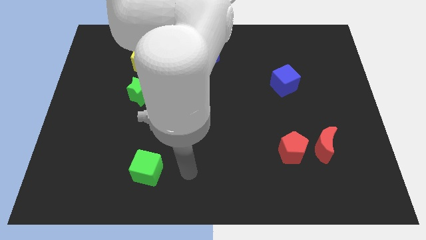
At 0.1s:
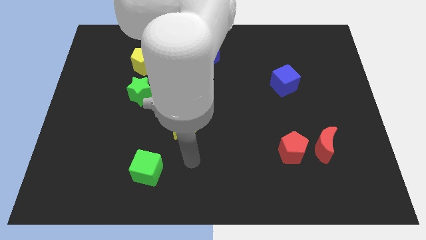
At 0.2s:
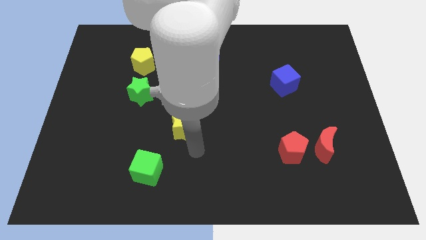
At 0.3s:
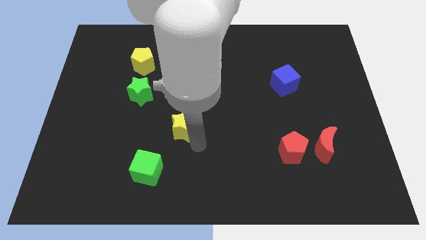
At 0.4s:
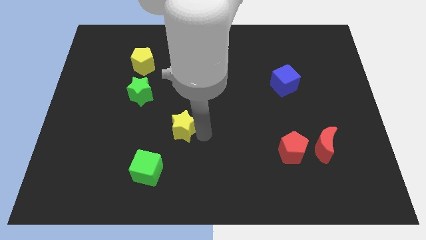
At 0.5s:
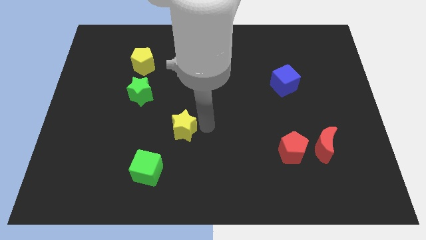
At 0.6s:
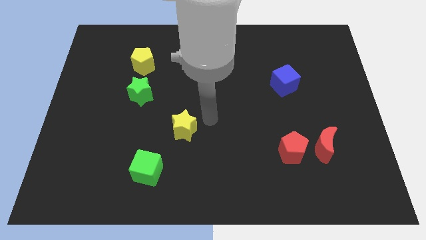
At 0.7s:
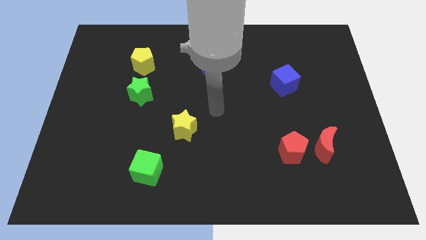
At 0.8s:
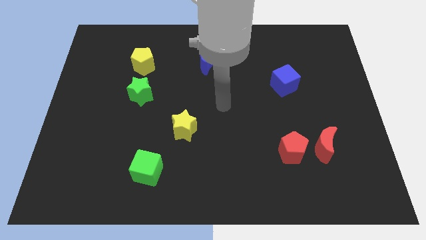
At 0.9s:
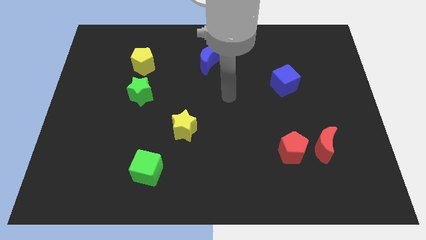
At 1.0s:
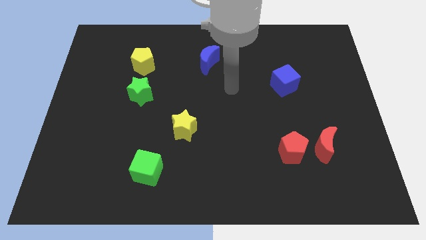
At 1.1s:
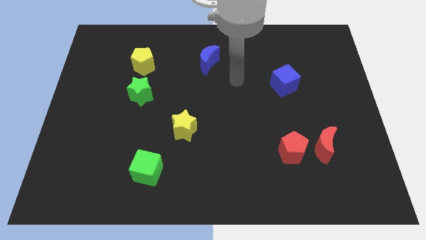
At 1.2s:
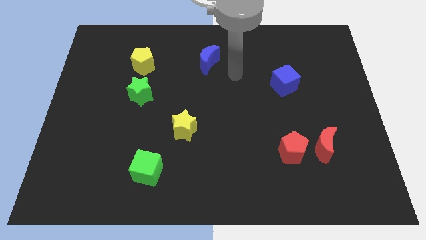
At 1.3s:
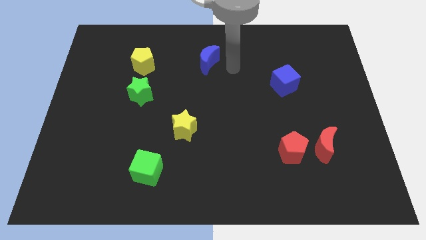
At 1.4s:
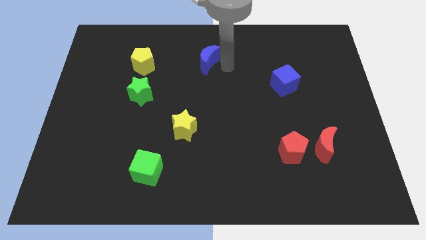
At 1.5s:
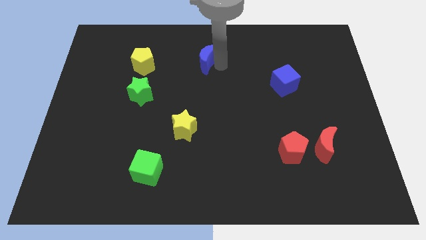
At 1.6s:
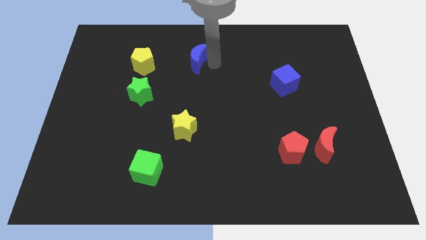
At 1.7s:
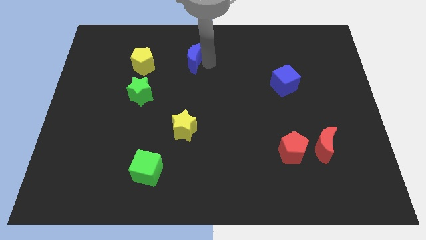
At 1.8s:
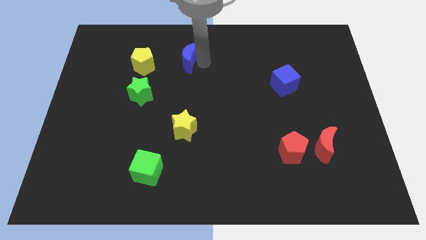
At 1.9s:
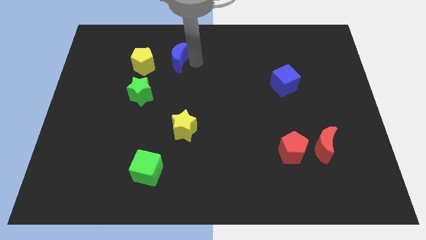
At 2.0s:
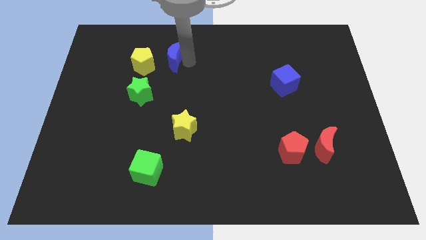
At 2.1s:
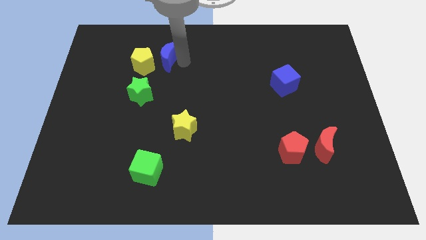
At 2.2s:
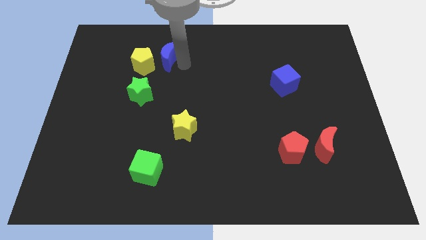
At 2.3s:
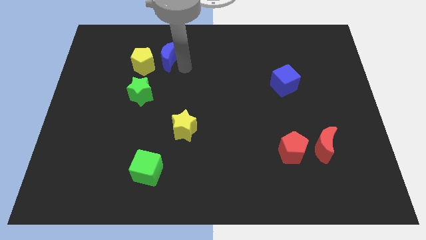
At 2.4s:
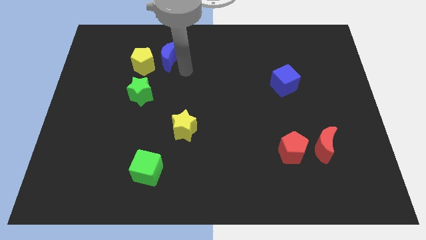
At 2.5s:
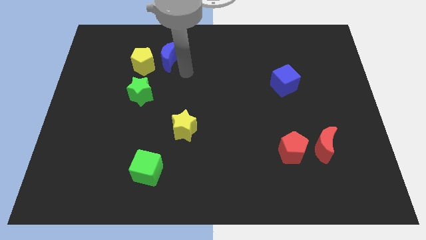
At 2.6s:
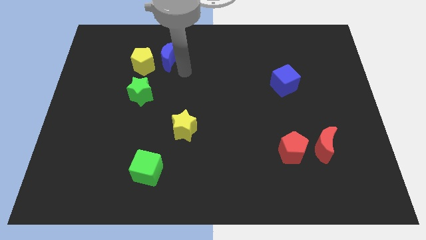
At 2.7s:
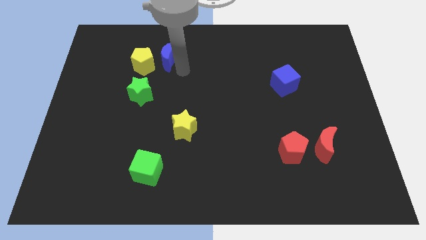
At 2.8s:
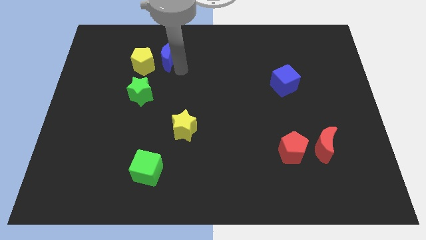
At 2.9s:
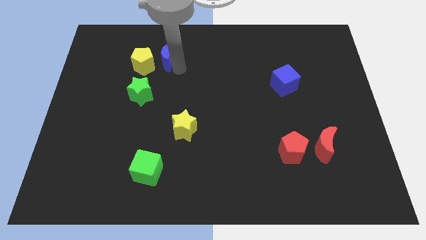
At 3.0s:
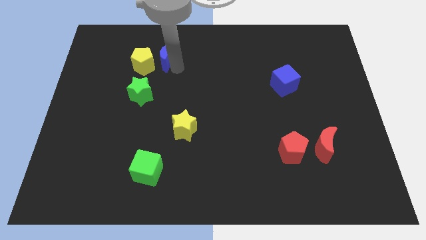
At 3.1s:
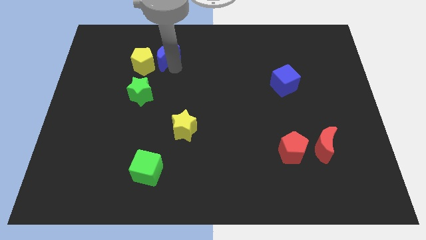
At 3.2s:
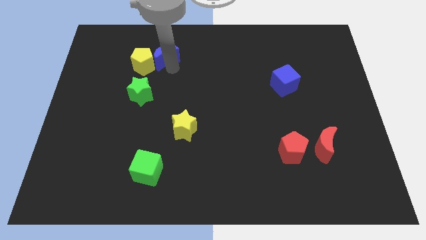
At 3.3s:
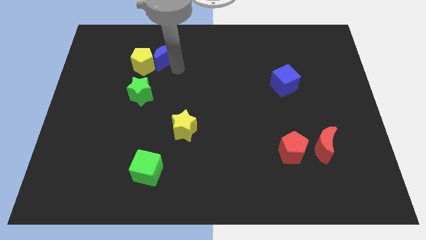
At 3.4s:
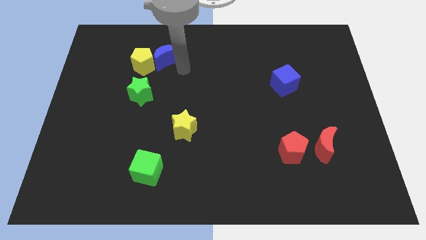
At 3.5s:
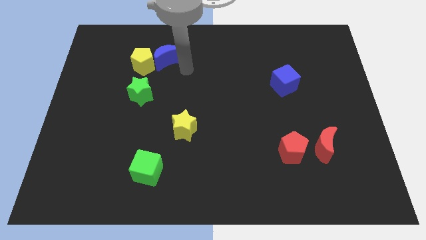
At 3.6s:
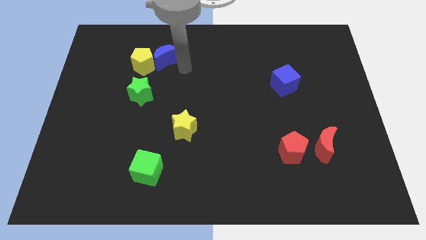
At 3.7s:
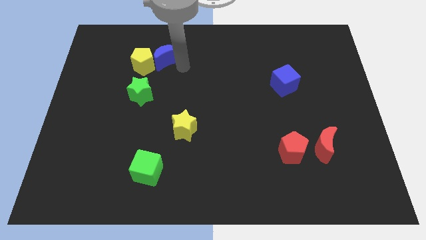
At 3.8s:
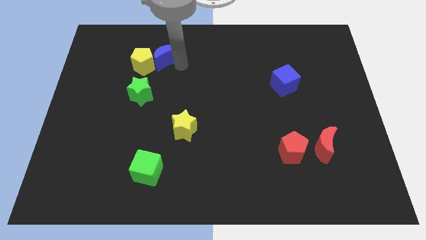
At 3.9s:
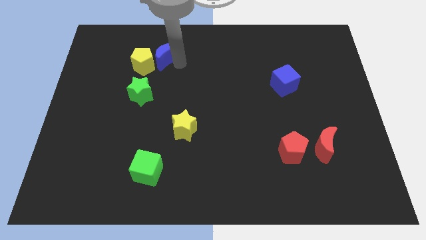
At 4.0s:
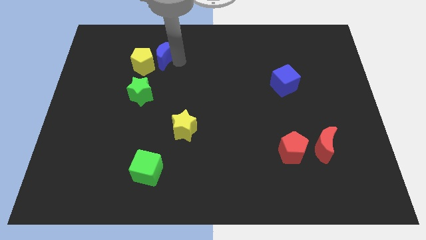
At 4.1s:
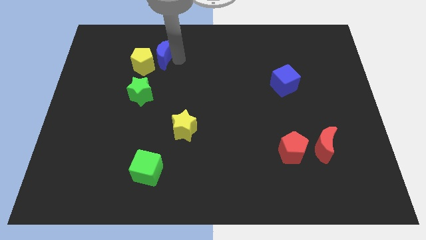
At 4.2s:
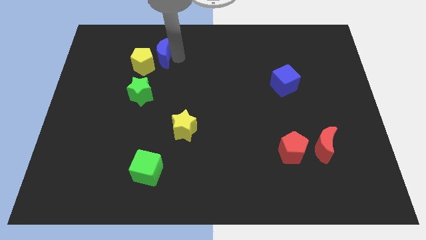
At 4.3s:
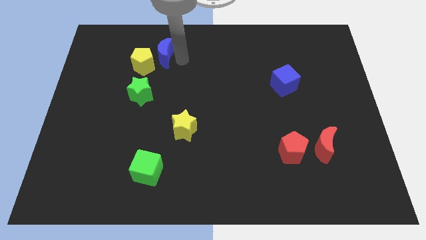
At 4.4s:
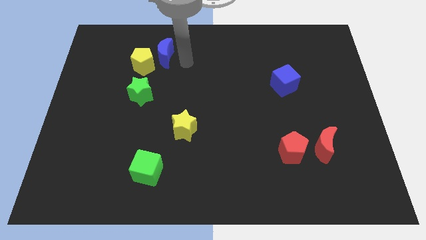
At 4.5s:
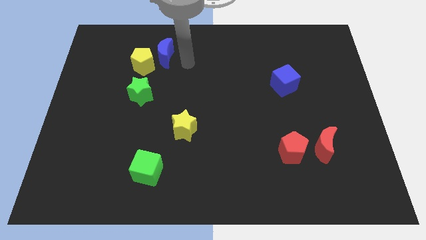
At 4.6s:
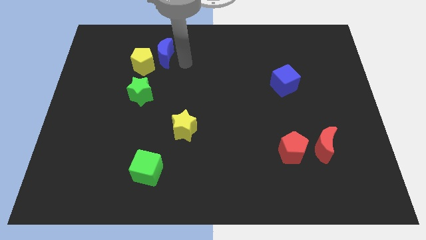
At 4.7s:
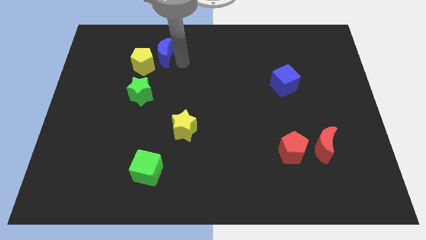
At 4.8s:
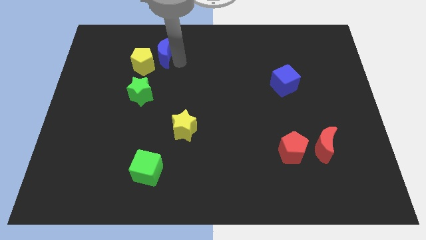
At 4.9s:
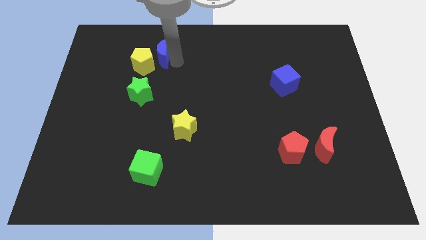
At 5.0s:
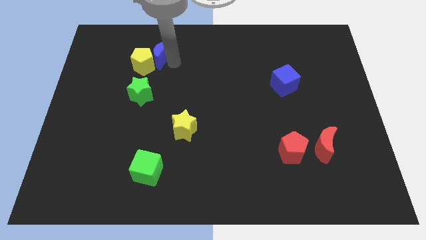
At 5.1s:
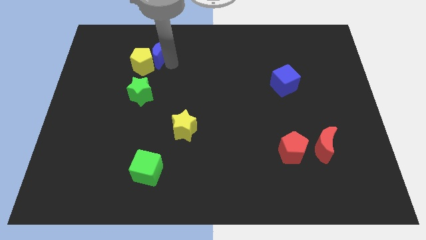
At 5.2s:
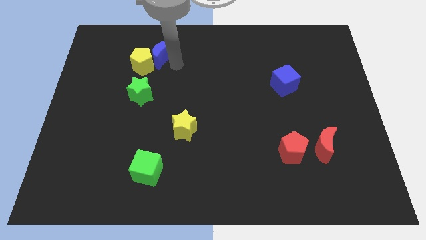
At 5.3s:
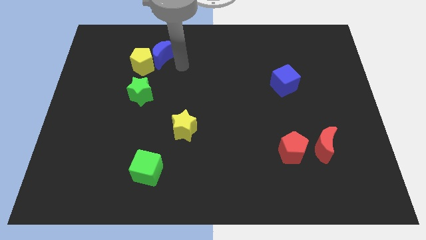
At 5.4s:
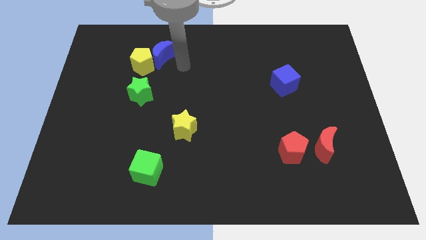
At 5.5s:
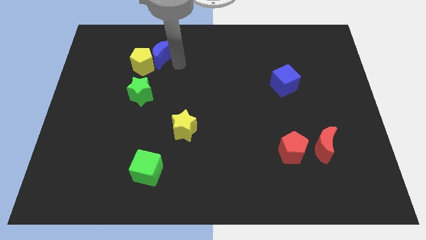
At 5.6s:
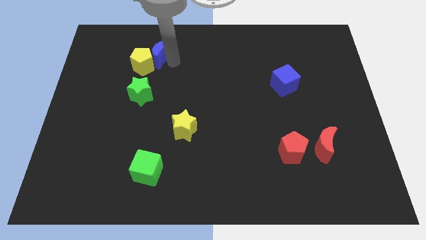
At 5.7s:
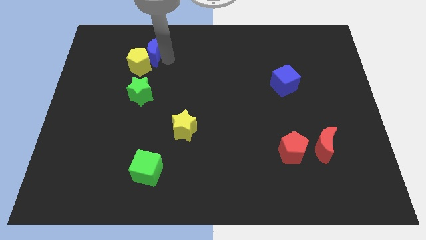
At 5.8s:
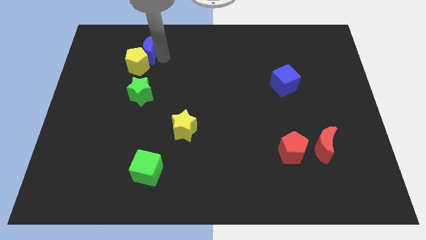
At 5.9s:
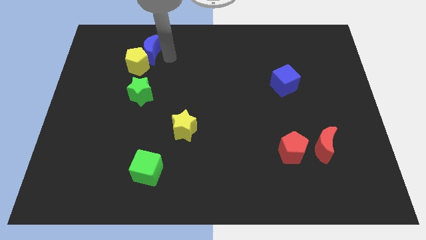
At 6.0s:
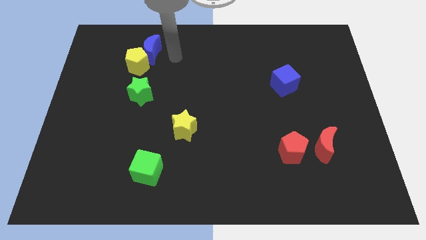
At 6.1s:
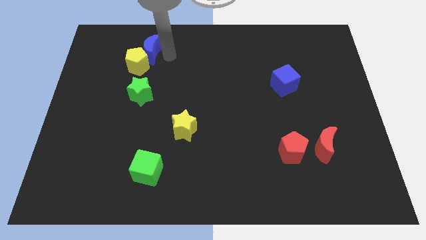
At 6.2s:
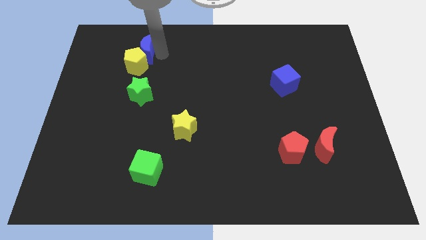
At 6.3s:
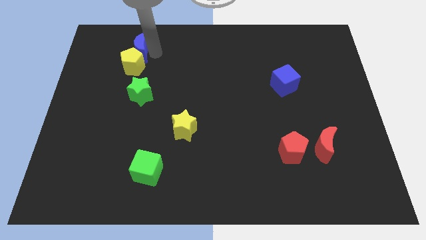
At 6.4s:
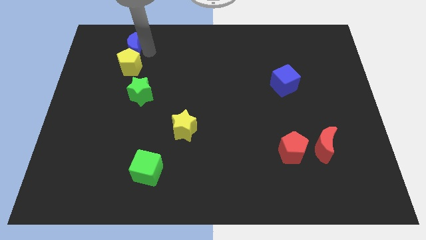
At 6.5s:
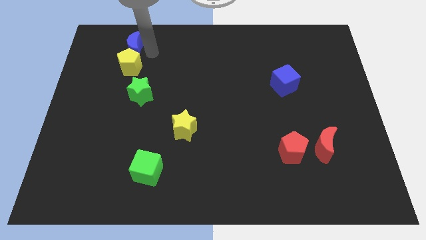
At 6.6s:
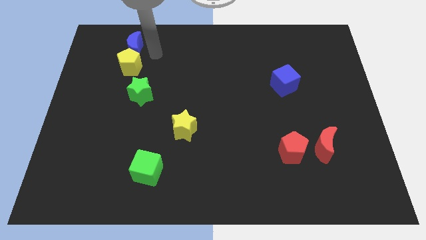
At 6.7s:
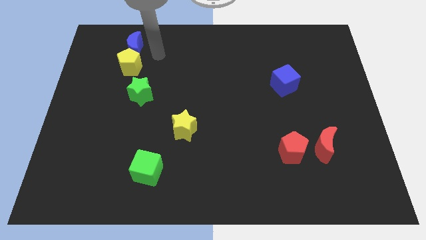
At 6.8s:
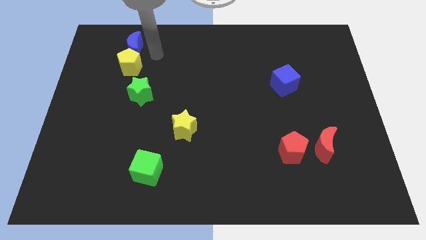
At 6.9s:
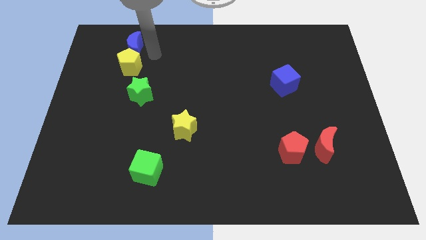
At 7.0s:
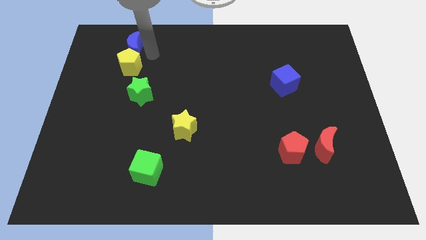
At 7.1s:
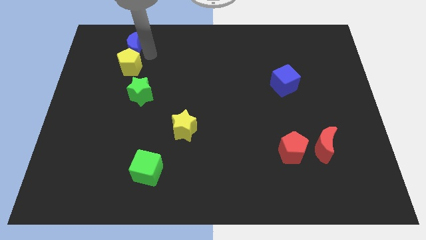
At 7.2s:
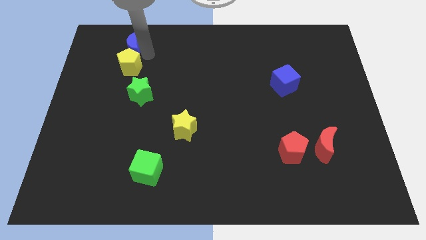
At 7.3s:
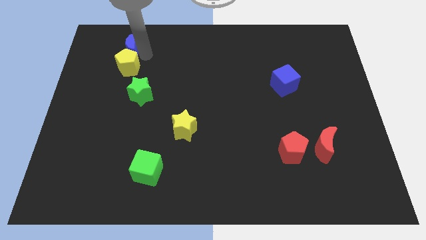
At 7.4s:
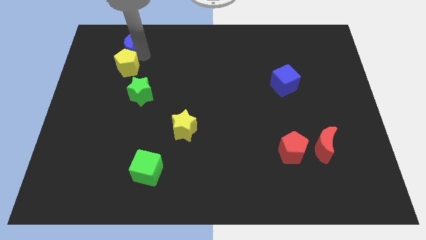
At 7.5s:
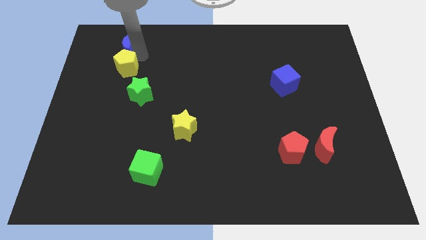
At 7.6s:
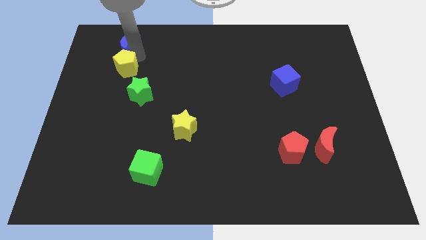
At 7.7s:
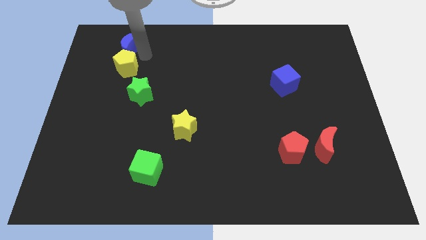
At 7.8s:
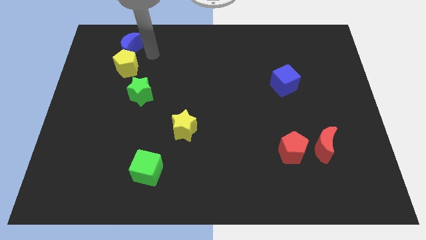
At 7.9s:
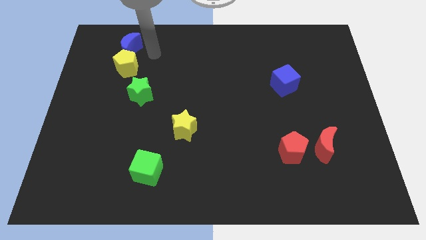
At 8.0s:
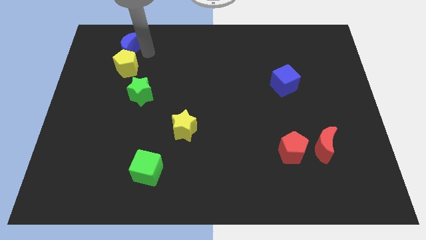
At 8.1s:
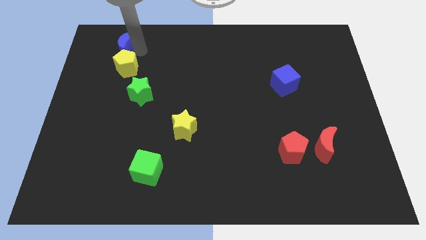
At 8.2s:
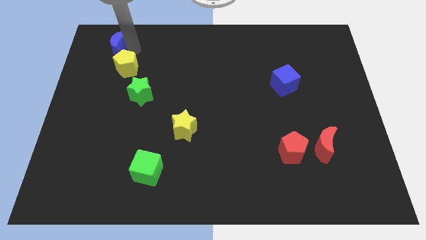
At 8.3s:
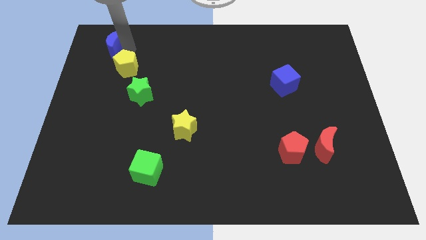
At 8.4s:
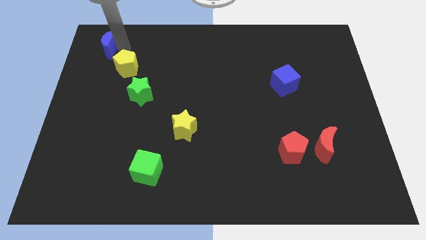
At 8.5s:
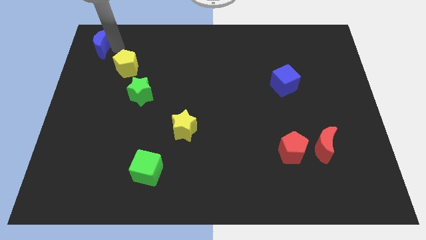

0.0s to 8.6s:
put the blue moon to the top left of the board
